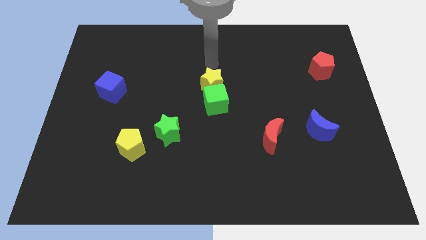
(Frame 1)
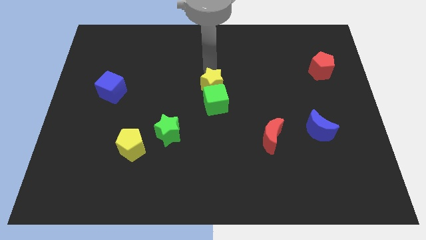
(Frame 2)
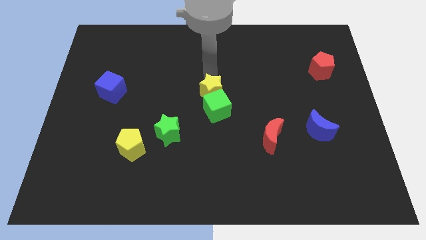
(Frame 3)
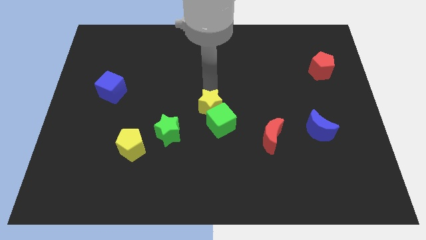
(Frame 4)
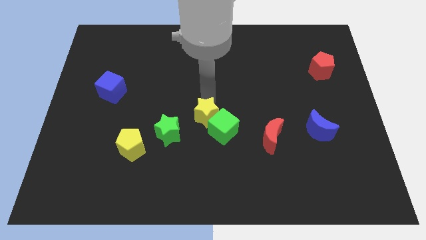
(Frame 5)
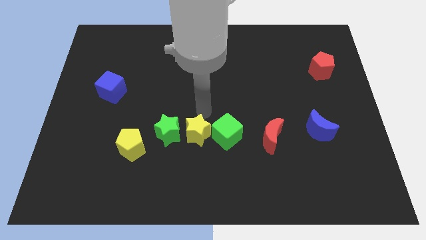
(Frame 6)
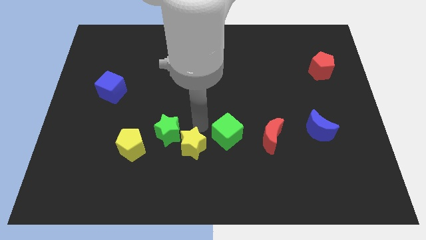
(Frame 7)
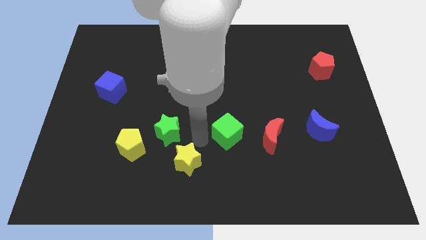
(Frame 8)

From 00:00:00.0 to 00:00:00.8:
pull the green cube apart from the yellow star

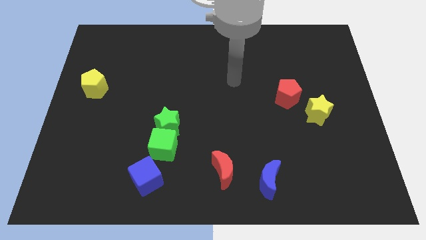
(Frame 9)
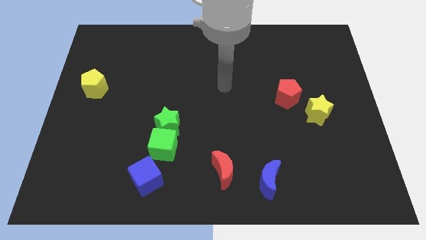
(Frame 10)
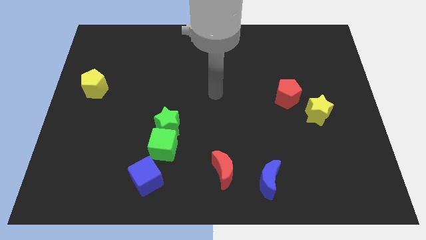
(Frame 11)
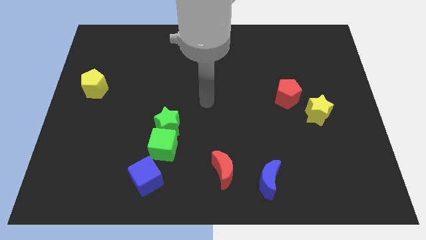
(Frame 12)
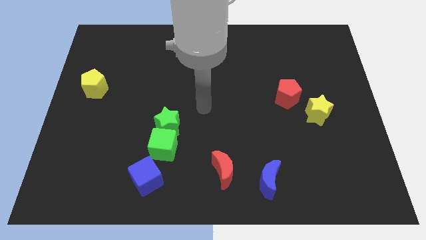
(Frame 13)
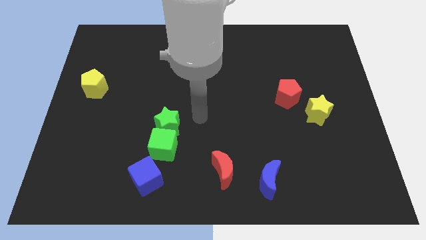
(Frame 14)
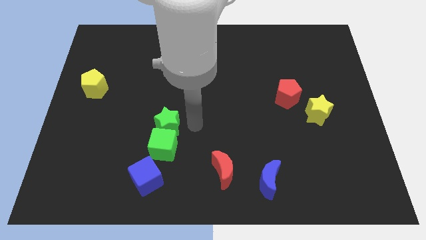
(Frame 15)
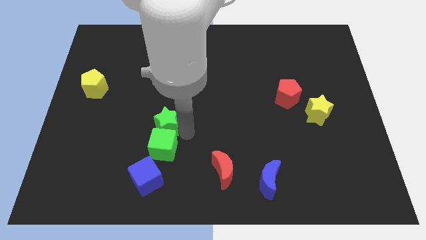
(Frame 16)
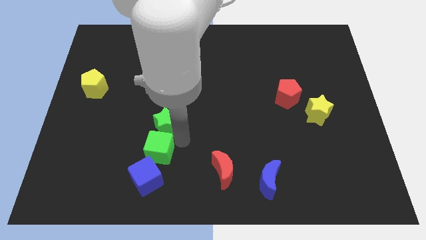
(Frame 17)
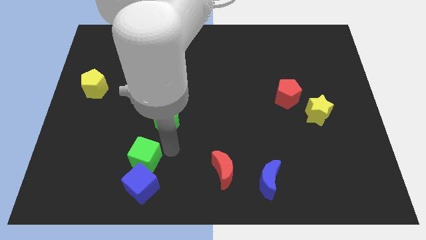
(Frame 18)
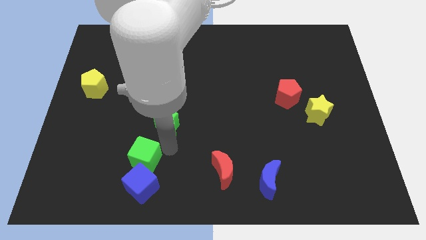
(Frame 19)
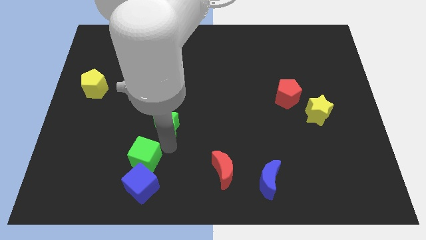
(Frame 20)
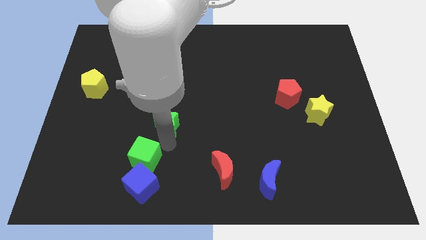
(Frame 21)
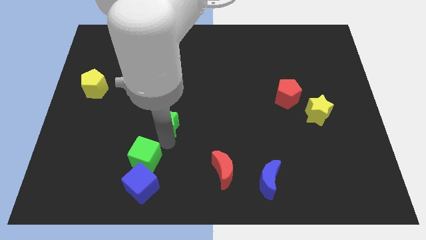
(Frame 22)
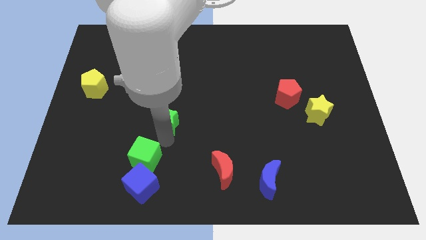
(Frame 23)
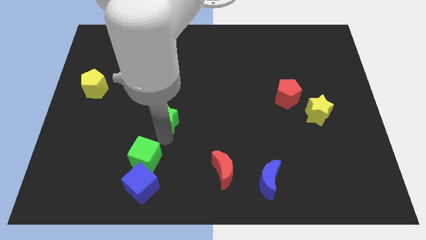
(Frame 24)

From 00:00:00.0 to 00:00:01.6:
separate the green star from the green cube

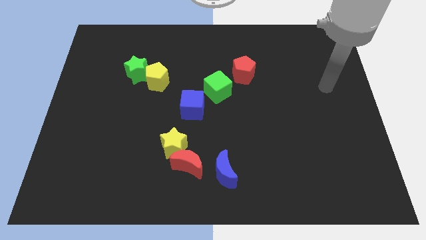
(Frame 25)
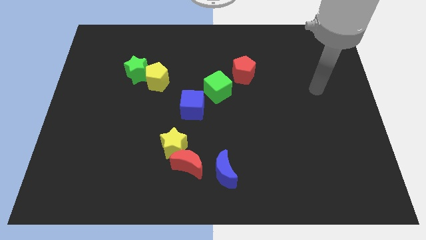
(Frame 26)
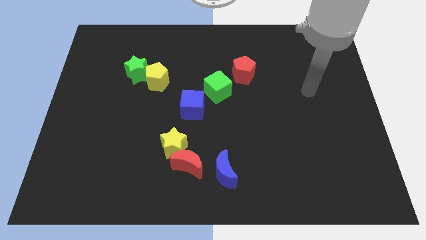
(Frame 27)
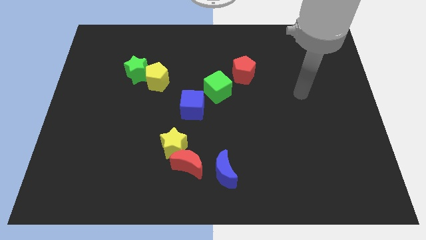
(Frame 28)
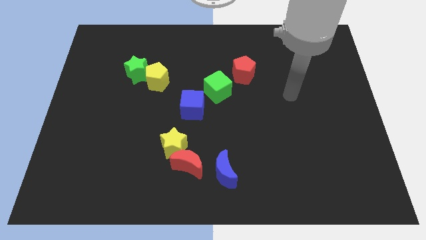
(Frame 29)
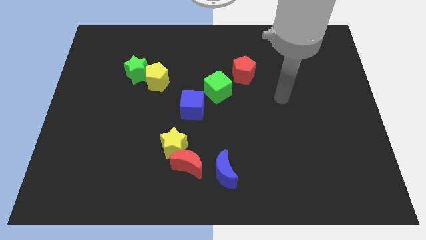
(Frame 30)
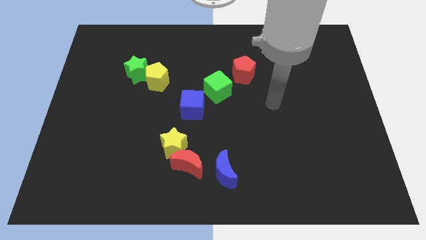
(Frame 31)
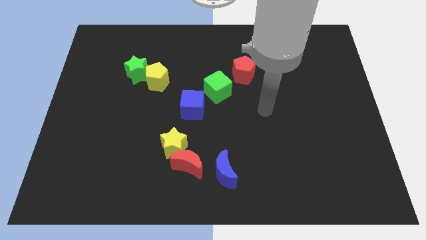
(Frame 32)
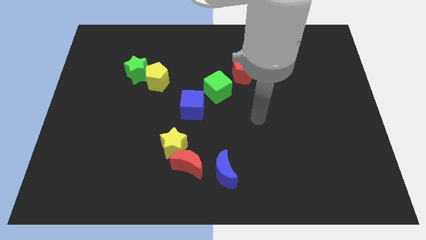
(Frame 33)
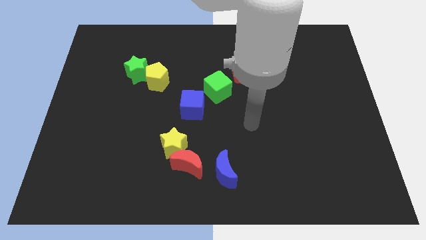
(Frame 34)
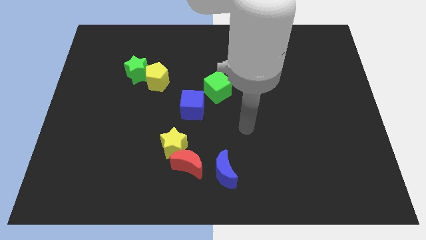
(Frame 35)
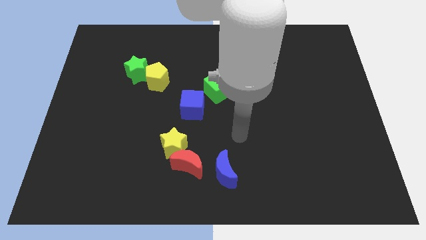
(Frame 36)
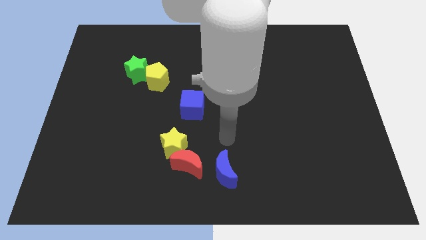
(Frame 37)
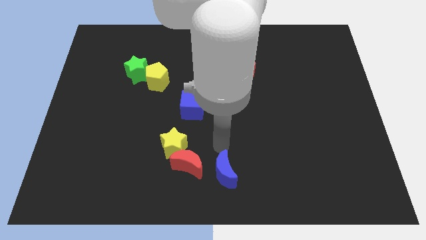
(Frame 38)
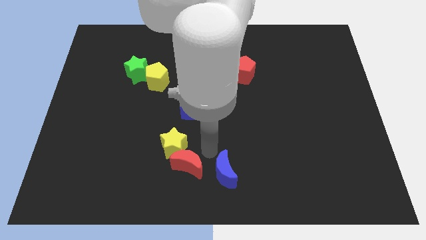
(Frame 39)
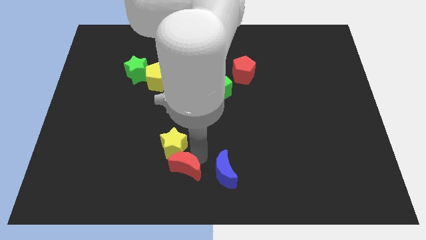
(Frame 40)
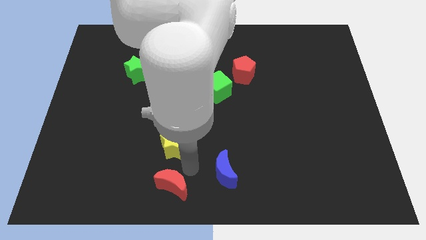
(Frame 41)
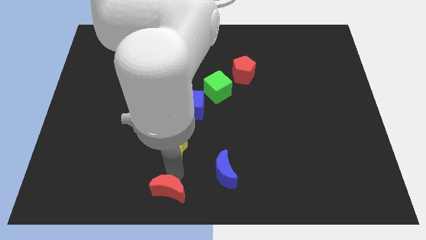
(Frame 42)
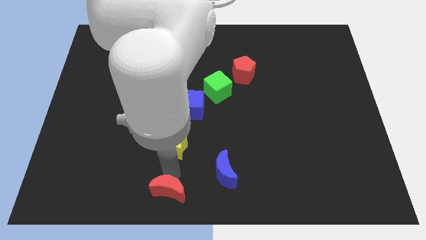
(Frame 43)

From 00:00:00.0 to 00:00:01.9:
separate the yellow star from the red moon

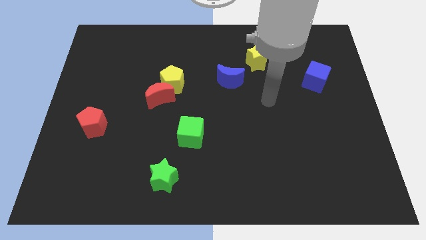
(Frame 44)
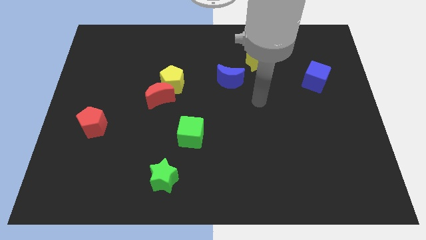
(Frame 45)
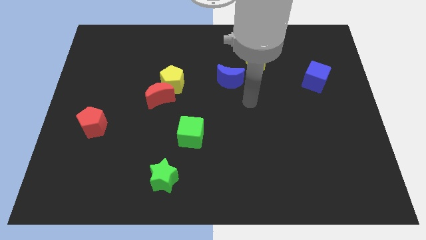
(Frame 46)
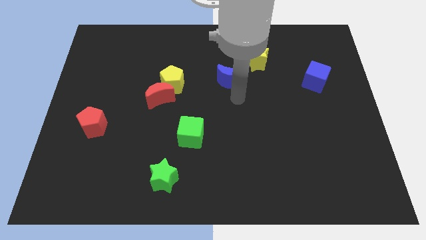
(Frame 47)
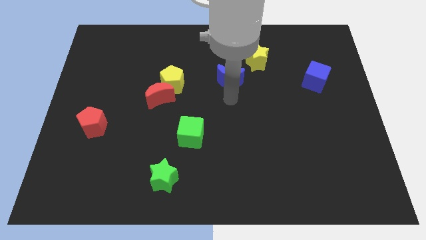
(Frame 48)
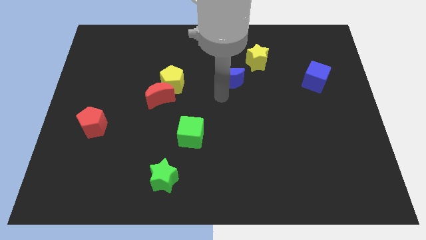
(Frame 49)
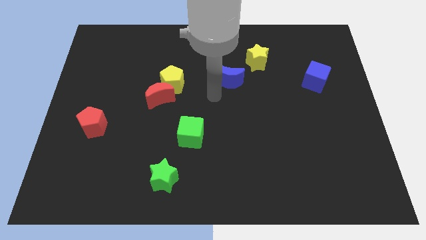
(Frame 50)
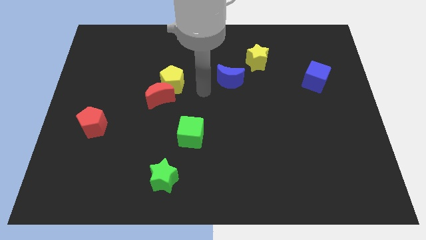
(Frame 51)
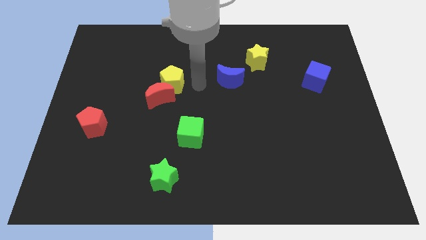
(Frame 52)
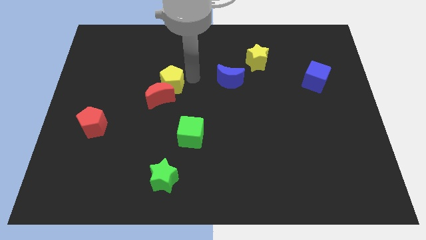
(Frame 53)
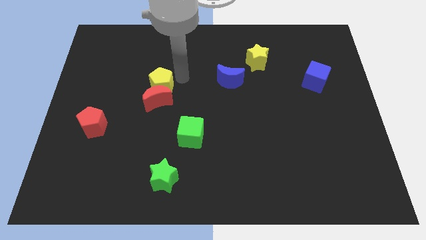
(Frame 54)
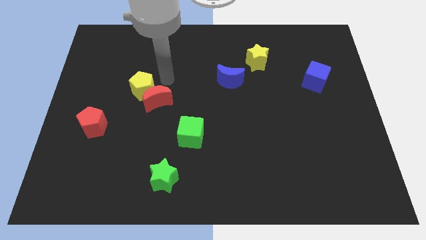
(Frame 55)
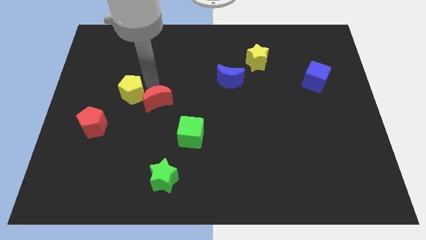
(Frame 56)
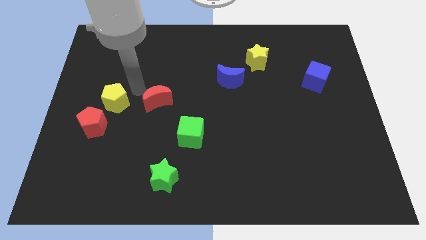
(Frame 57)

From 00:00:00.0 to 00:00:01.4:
separate the red moon from the yellow pentagon

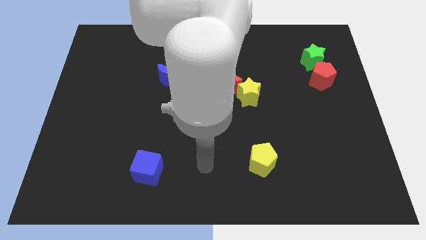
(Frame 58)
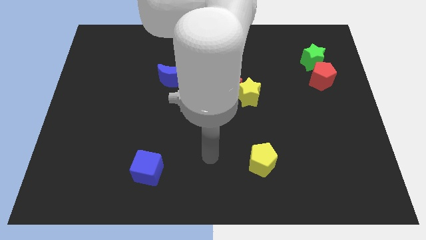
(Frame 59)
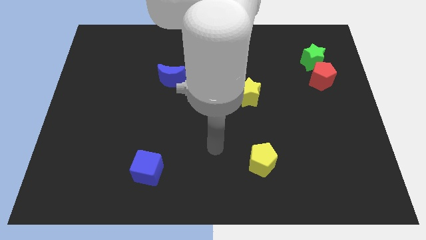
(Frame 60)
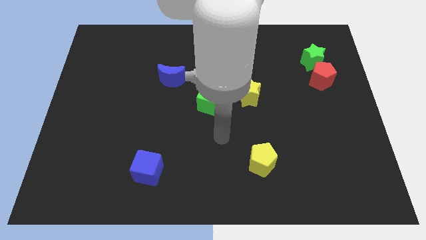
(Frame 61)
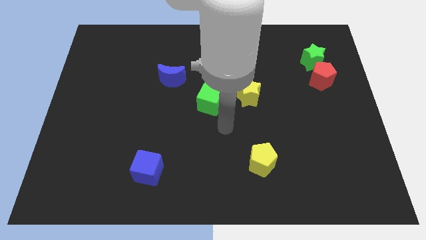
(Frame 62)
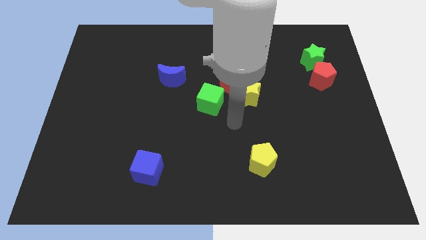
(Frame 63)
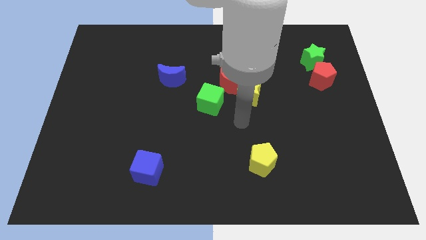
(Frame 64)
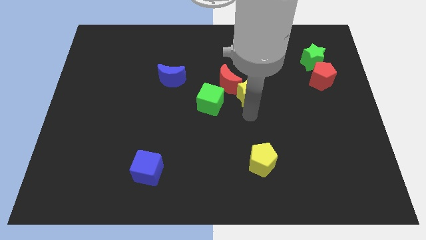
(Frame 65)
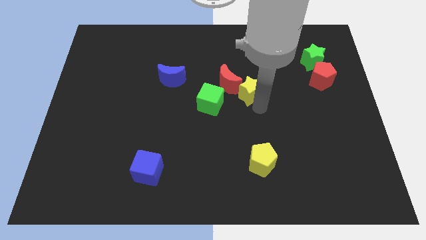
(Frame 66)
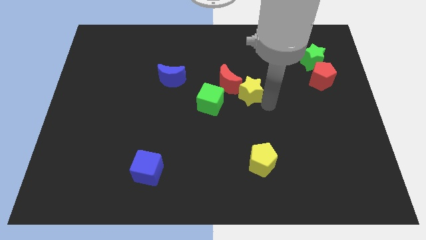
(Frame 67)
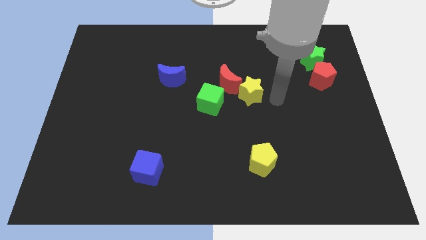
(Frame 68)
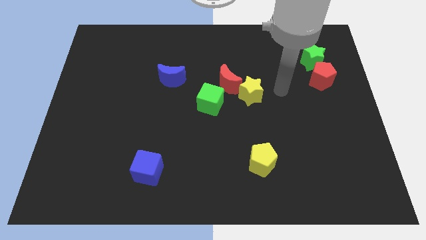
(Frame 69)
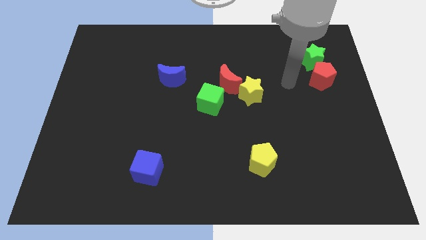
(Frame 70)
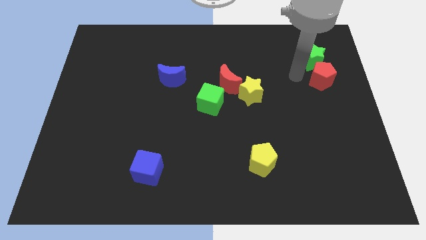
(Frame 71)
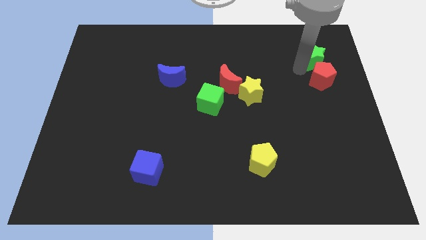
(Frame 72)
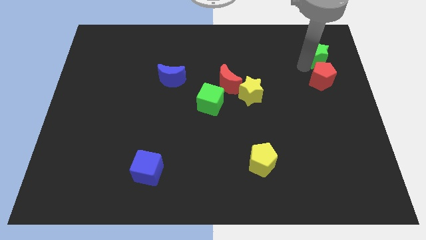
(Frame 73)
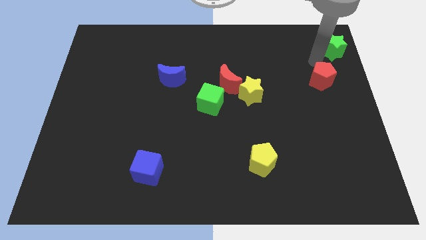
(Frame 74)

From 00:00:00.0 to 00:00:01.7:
separate the red pentagon from the green star

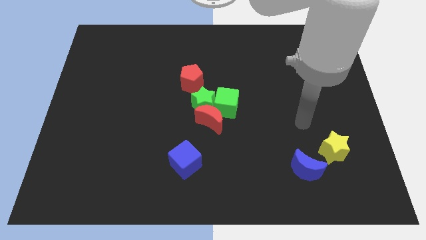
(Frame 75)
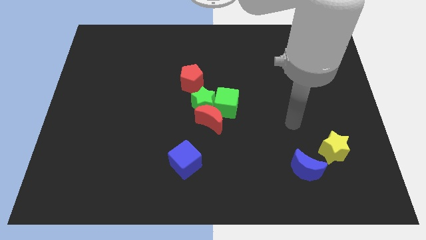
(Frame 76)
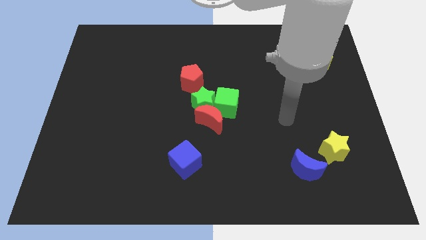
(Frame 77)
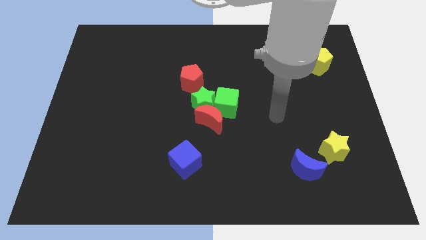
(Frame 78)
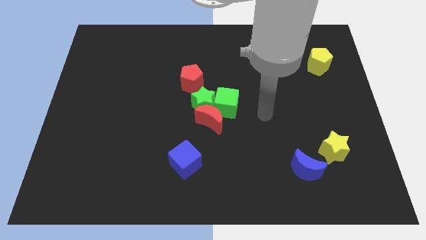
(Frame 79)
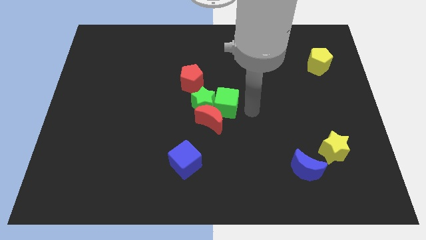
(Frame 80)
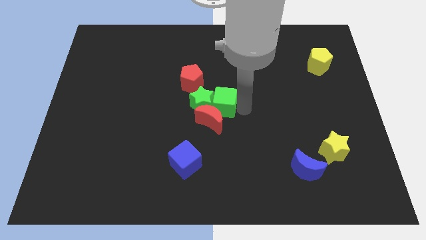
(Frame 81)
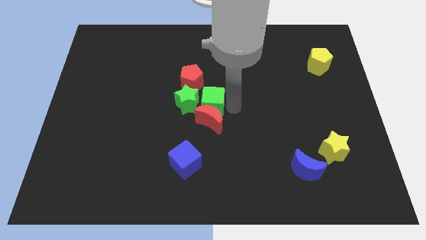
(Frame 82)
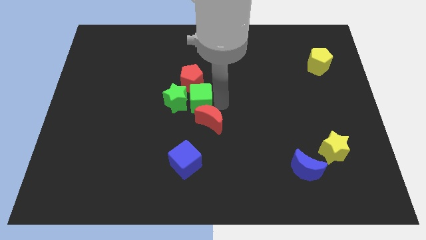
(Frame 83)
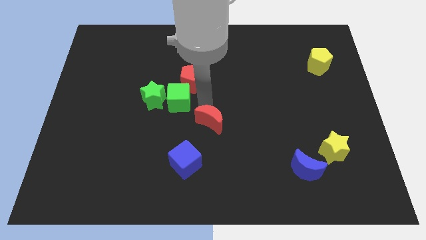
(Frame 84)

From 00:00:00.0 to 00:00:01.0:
pull the red moon apart from the green star and green cube

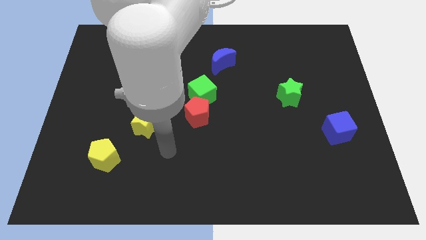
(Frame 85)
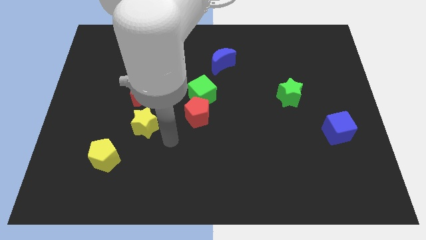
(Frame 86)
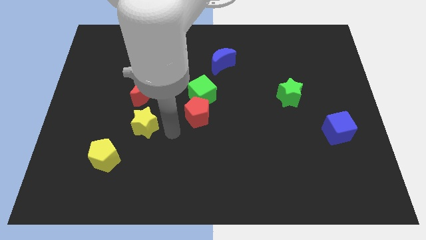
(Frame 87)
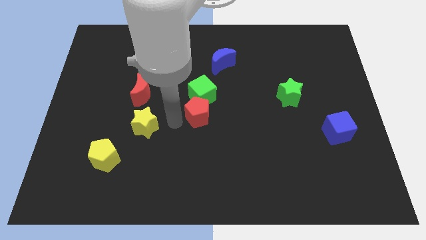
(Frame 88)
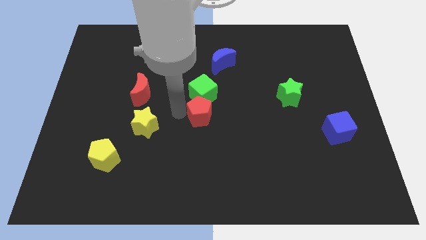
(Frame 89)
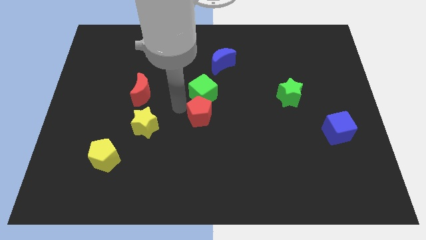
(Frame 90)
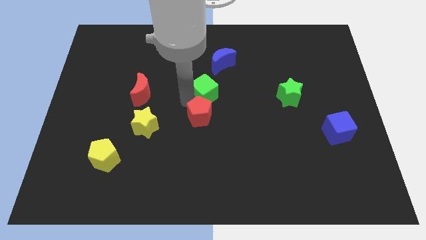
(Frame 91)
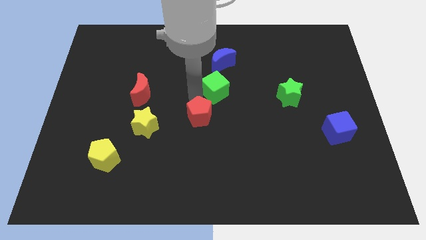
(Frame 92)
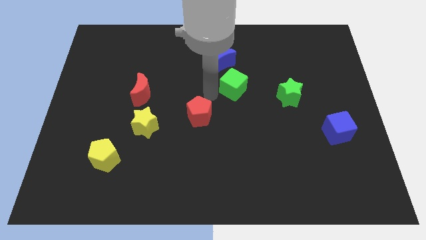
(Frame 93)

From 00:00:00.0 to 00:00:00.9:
pull the red pentagon apart from the green cube
